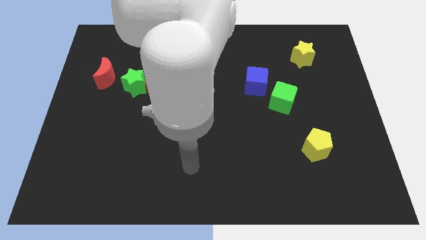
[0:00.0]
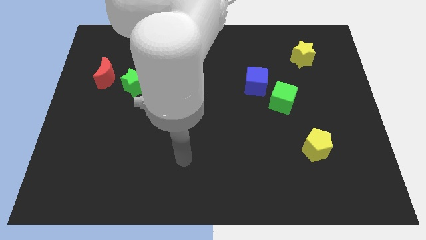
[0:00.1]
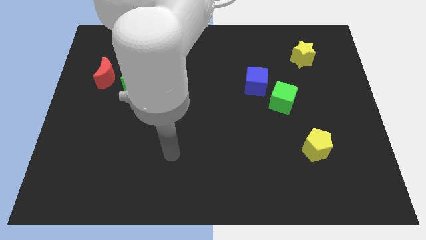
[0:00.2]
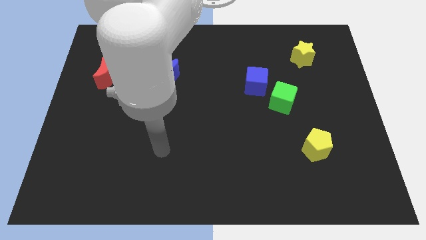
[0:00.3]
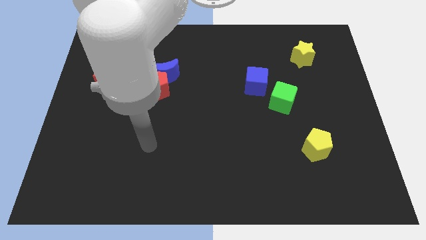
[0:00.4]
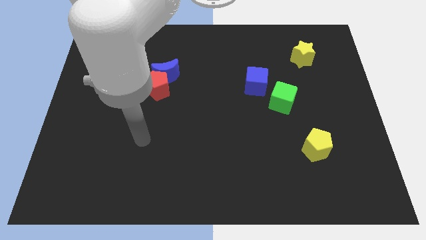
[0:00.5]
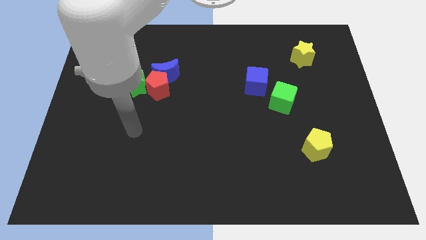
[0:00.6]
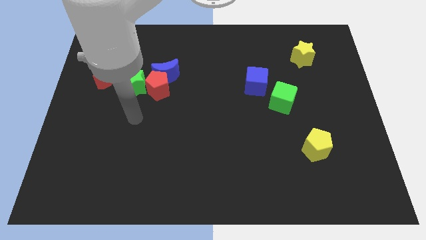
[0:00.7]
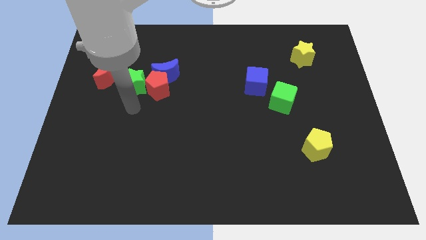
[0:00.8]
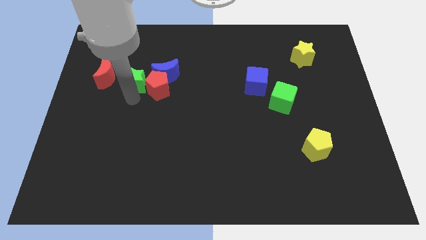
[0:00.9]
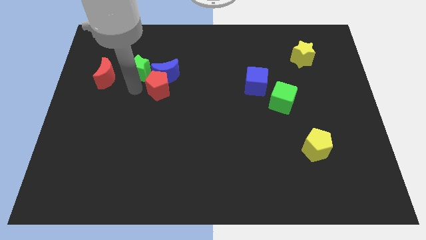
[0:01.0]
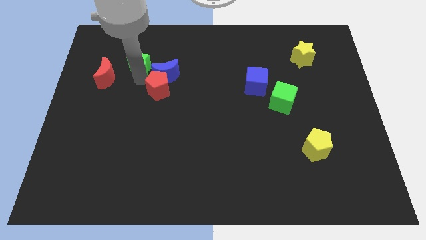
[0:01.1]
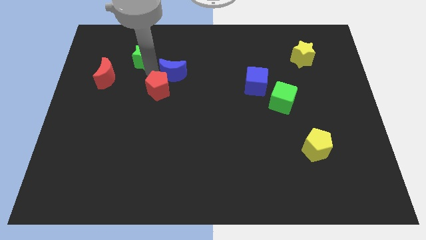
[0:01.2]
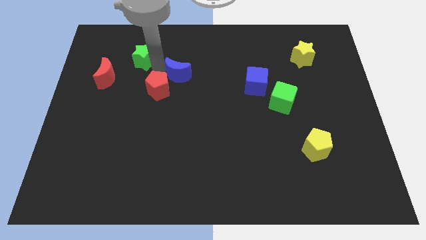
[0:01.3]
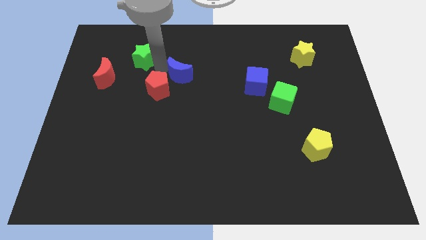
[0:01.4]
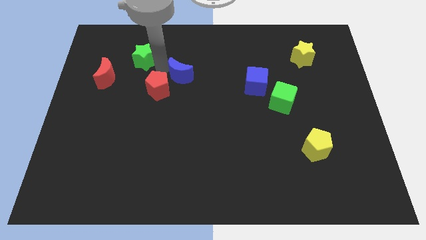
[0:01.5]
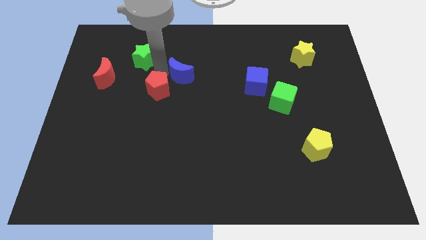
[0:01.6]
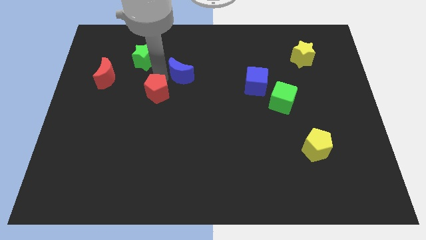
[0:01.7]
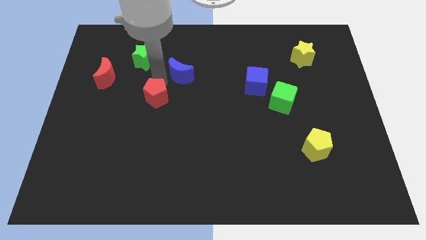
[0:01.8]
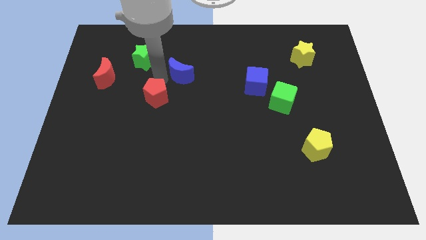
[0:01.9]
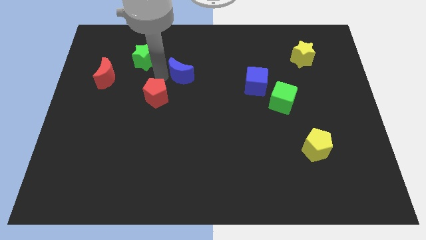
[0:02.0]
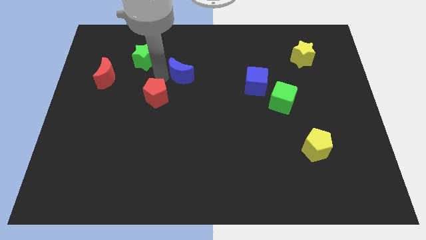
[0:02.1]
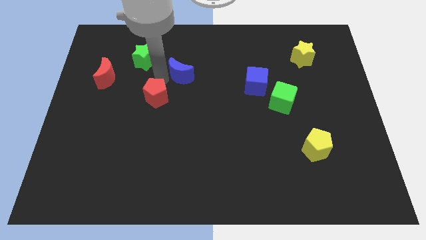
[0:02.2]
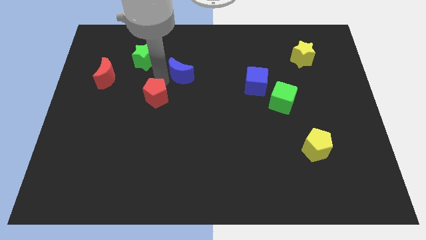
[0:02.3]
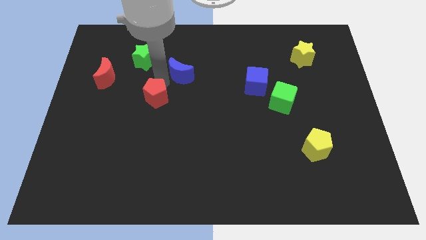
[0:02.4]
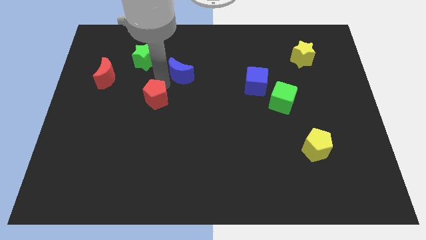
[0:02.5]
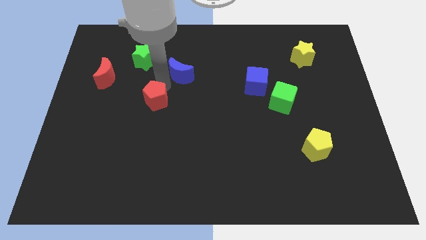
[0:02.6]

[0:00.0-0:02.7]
separate the red pentagon from the blue moon and green star

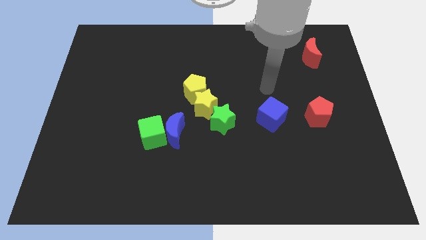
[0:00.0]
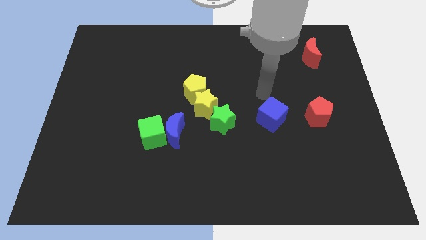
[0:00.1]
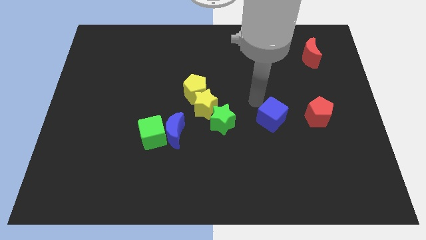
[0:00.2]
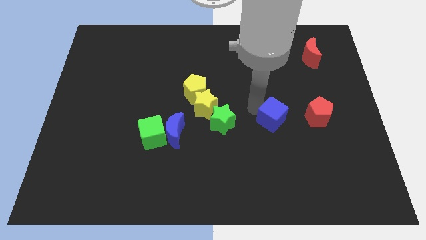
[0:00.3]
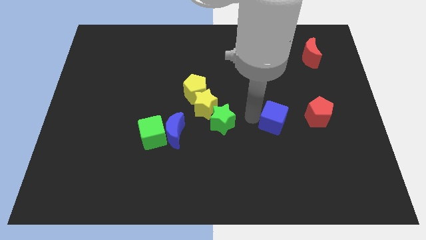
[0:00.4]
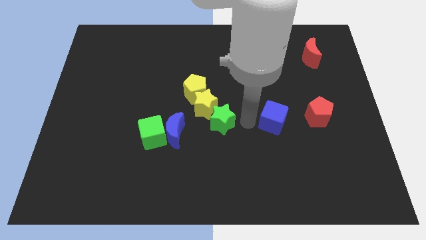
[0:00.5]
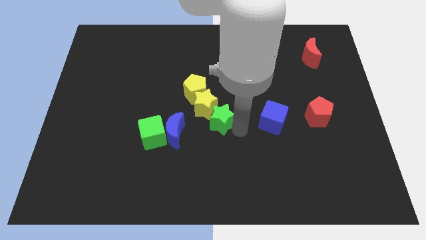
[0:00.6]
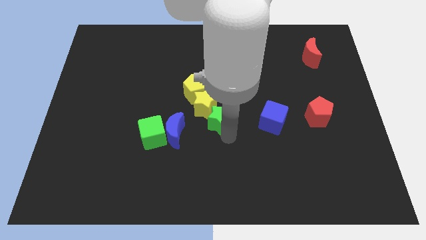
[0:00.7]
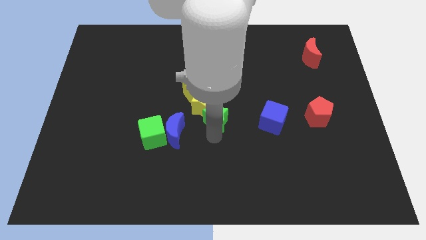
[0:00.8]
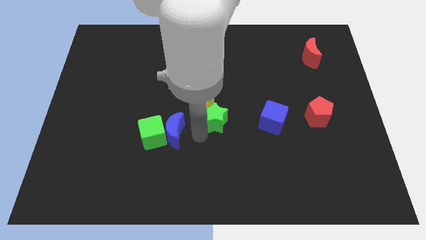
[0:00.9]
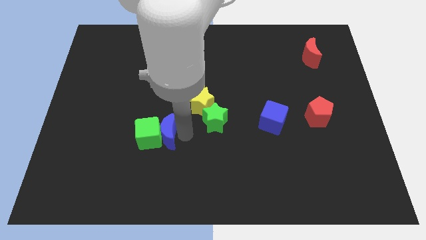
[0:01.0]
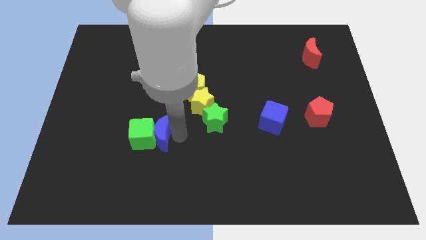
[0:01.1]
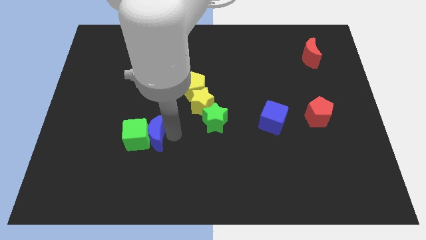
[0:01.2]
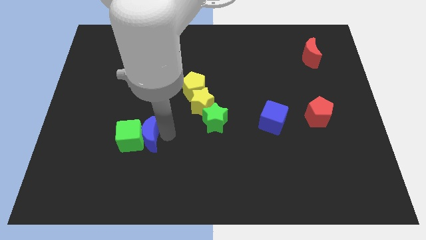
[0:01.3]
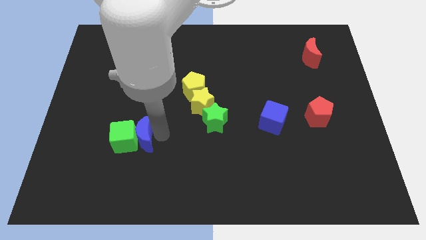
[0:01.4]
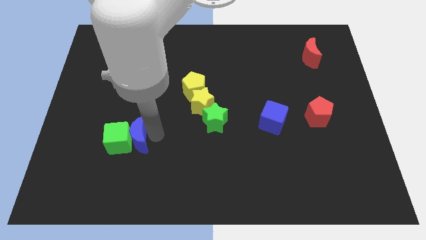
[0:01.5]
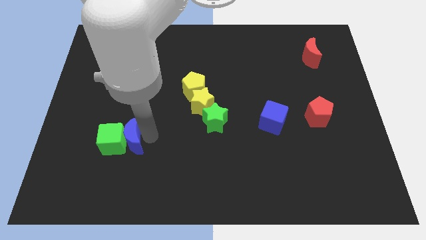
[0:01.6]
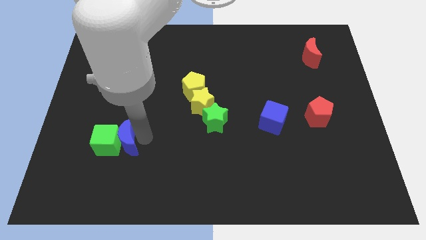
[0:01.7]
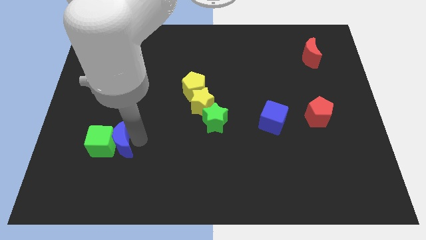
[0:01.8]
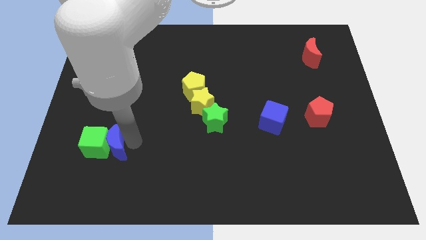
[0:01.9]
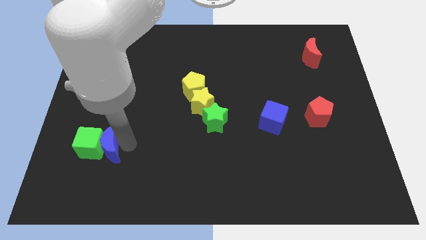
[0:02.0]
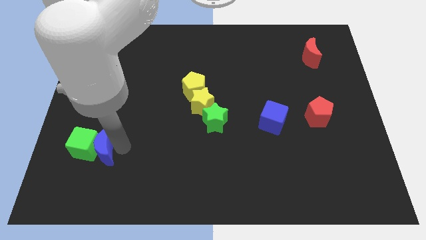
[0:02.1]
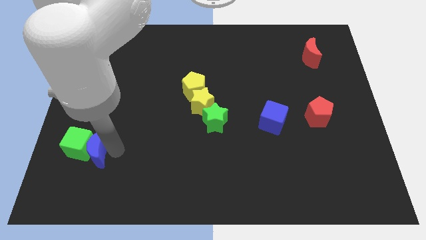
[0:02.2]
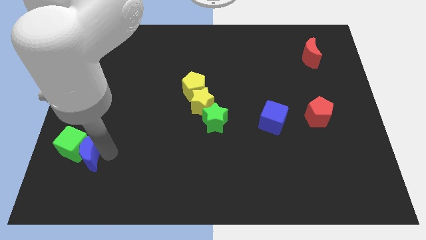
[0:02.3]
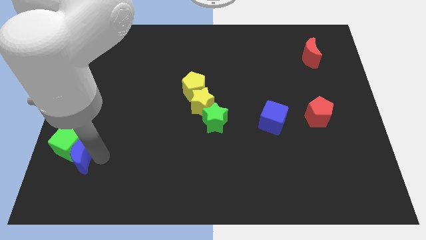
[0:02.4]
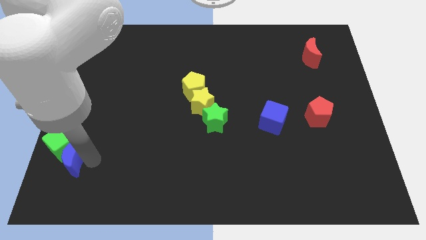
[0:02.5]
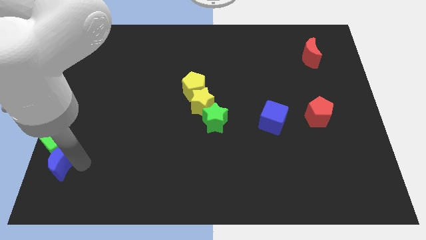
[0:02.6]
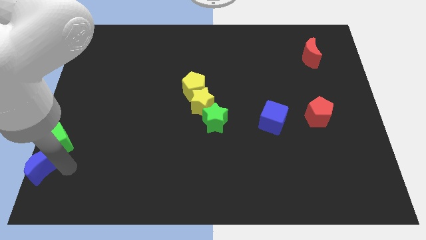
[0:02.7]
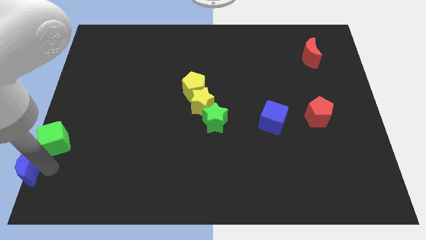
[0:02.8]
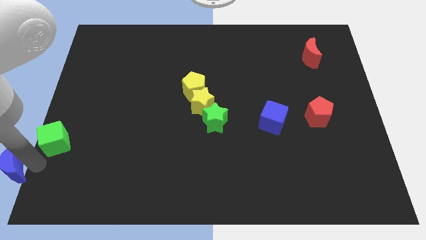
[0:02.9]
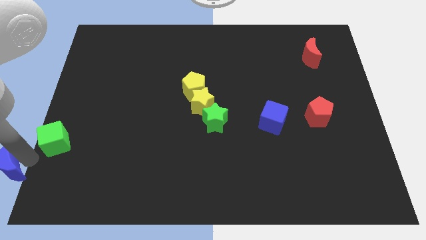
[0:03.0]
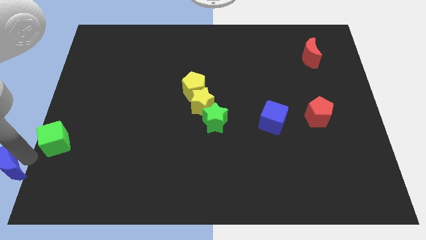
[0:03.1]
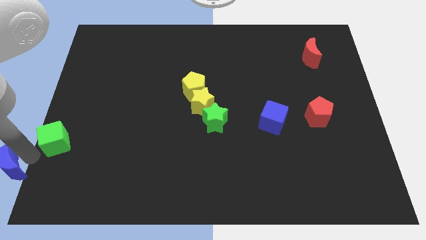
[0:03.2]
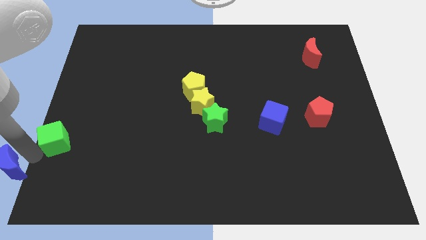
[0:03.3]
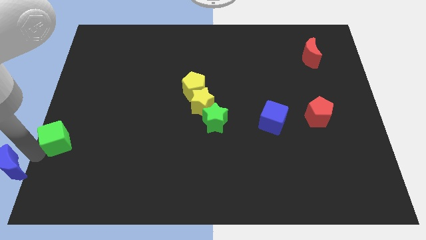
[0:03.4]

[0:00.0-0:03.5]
move the green cube away from the blue moon

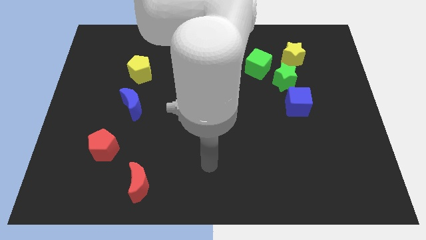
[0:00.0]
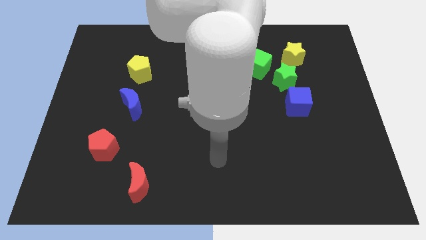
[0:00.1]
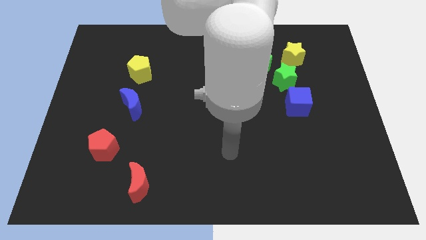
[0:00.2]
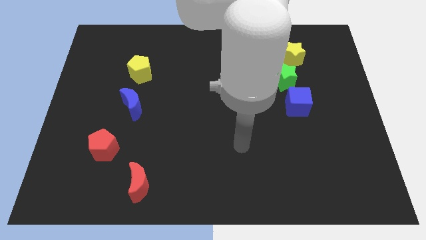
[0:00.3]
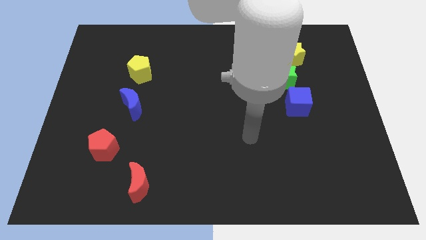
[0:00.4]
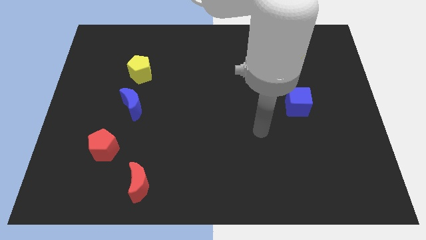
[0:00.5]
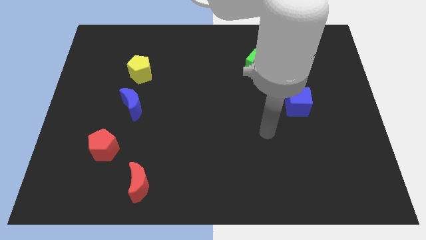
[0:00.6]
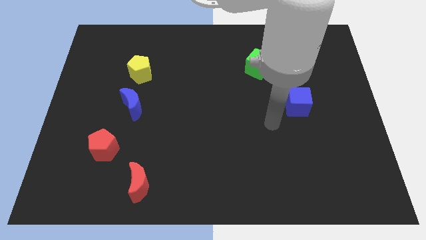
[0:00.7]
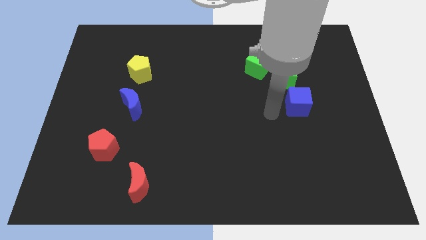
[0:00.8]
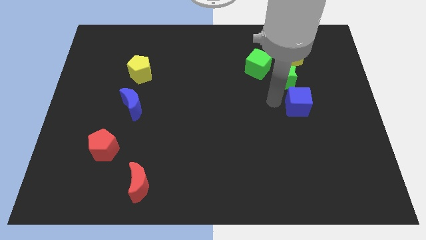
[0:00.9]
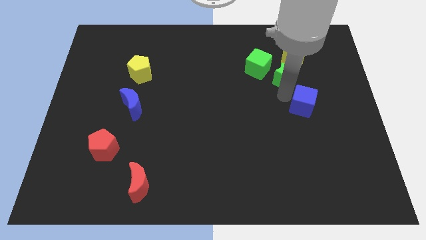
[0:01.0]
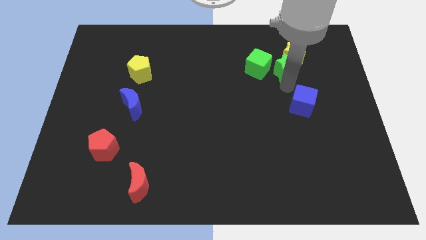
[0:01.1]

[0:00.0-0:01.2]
move the blue cube away from the green star

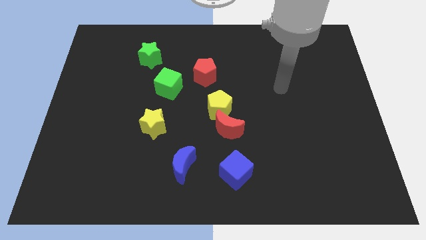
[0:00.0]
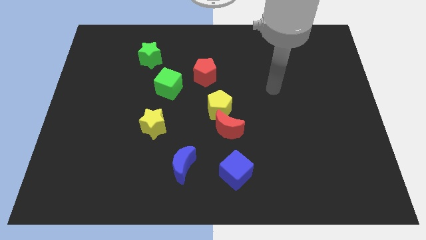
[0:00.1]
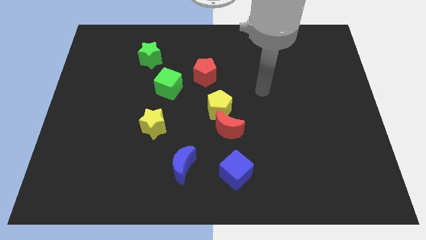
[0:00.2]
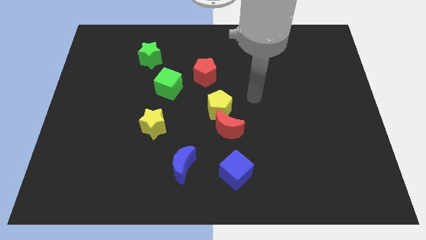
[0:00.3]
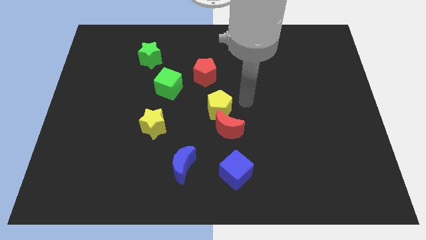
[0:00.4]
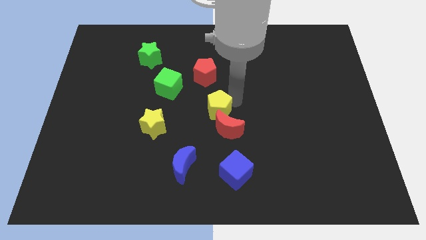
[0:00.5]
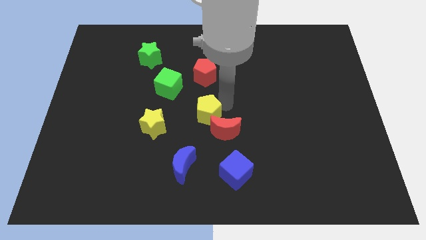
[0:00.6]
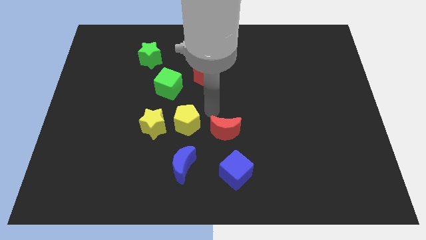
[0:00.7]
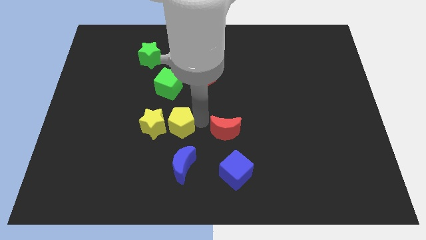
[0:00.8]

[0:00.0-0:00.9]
pull the red moon apart from the yellow pentagon

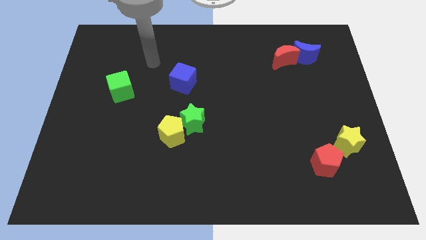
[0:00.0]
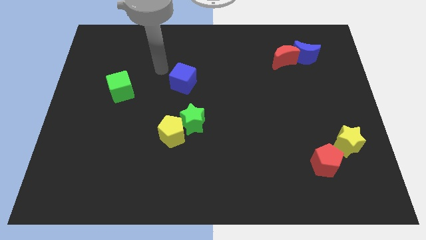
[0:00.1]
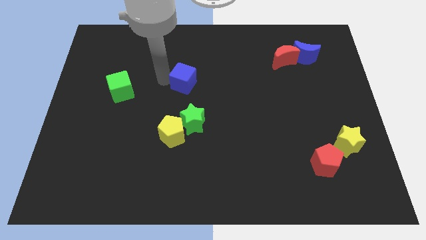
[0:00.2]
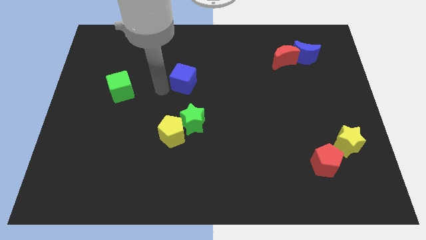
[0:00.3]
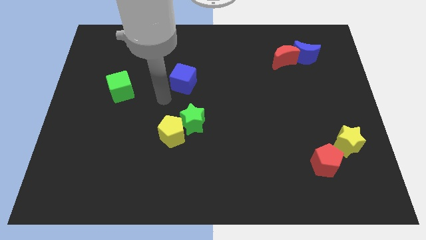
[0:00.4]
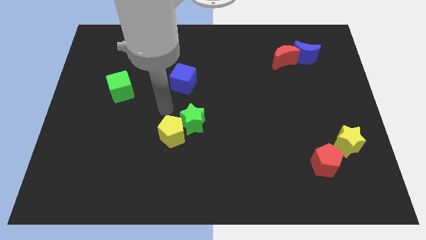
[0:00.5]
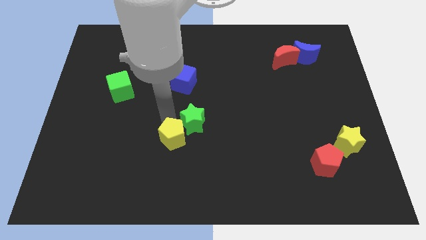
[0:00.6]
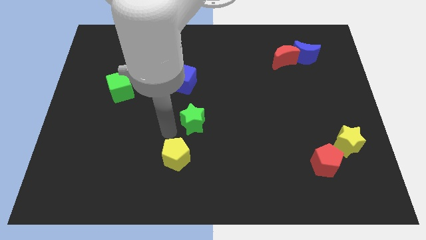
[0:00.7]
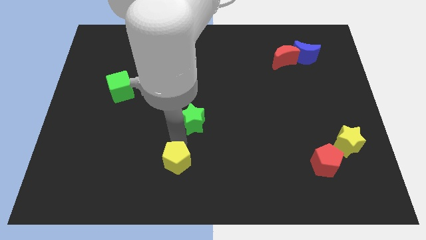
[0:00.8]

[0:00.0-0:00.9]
move the green star away from the yellow pentagon
